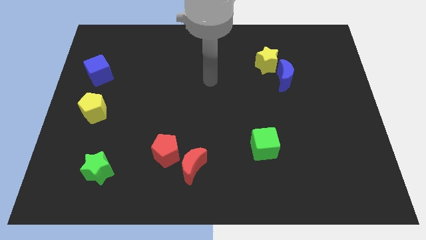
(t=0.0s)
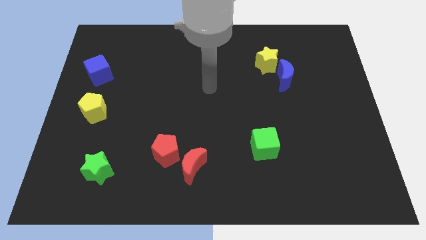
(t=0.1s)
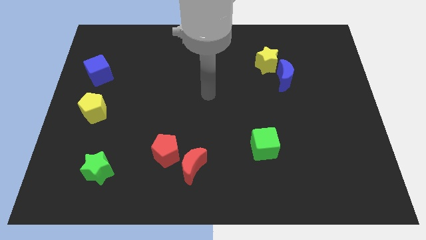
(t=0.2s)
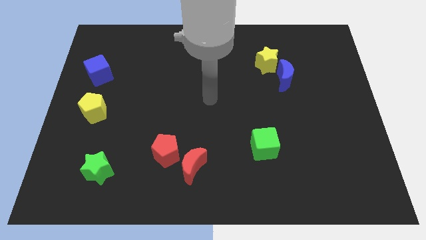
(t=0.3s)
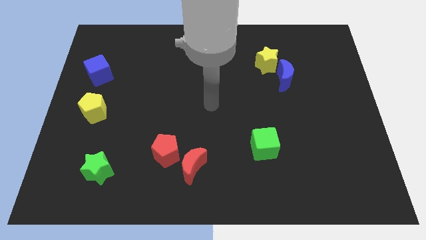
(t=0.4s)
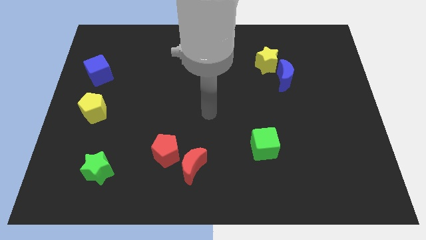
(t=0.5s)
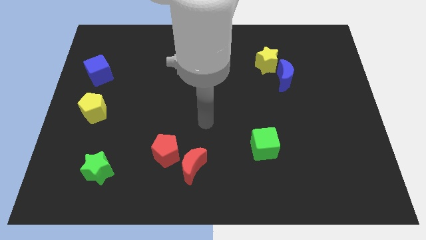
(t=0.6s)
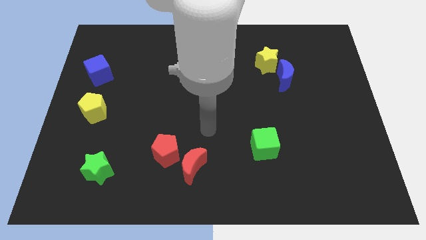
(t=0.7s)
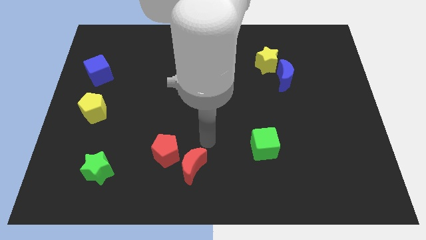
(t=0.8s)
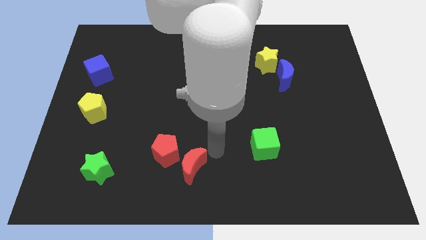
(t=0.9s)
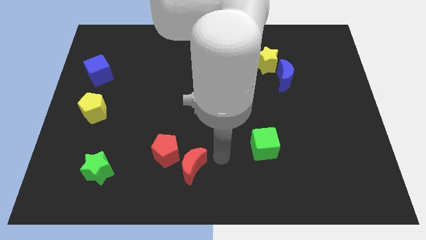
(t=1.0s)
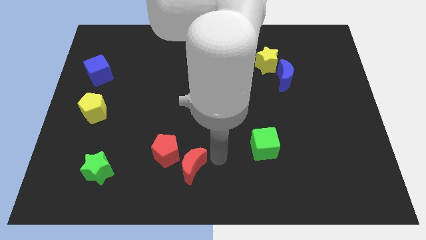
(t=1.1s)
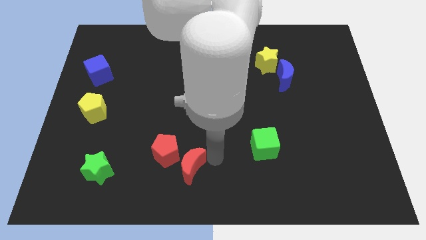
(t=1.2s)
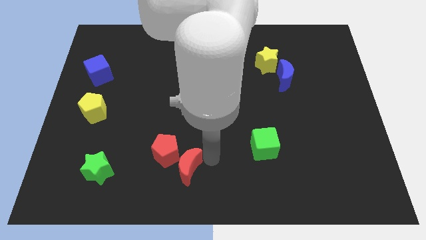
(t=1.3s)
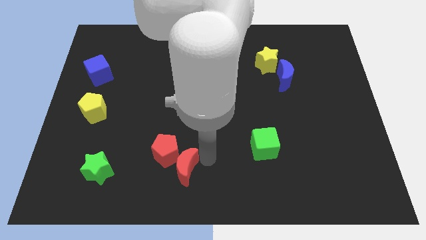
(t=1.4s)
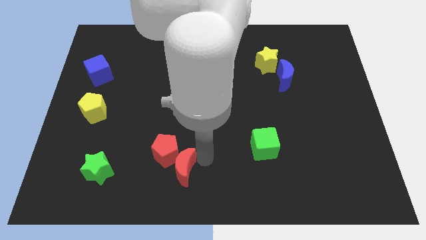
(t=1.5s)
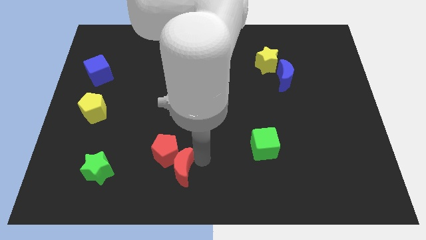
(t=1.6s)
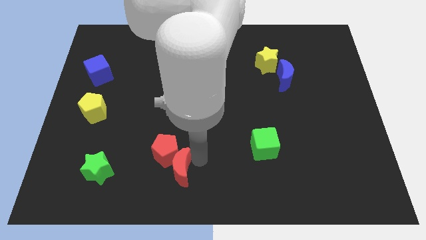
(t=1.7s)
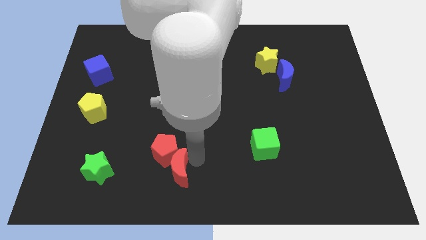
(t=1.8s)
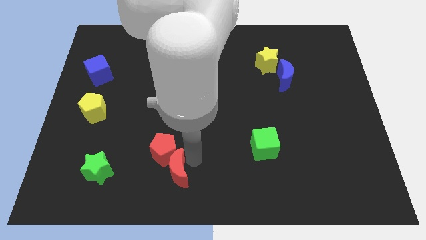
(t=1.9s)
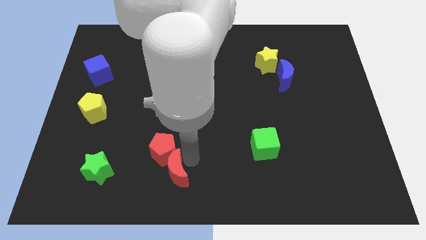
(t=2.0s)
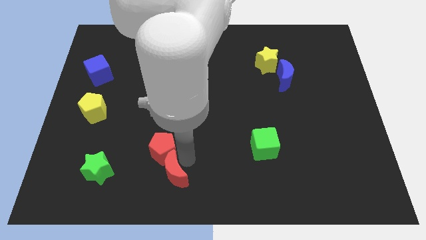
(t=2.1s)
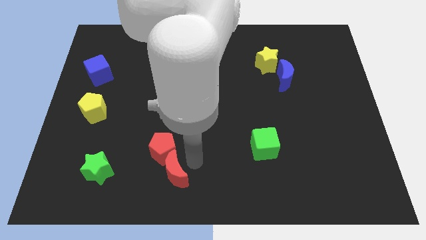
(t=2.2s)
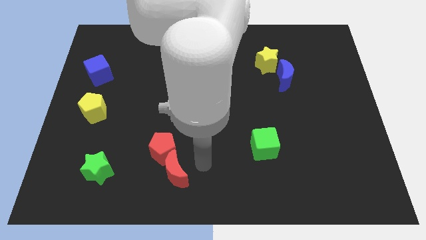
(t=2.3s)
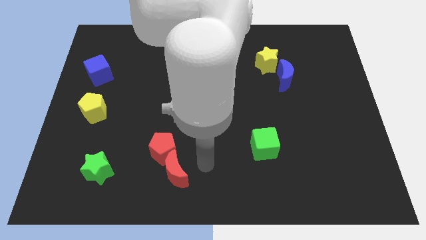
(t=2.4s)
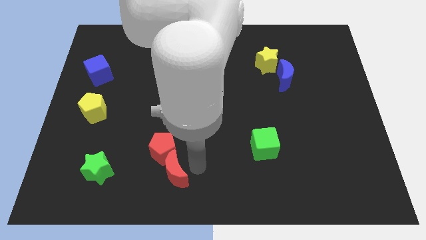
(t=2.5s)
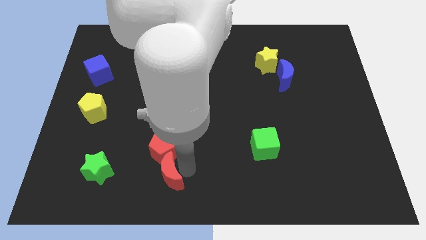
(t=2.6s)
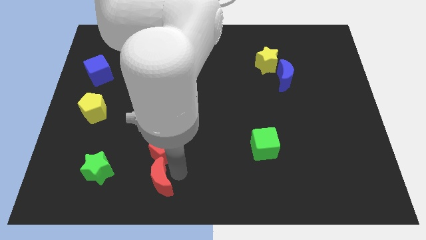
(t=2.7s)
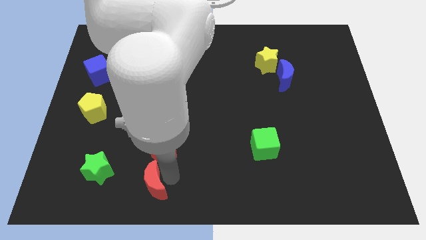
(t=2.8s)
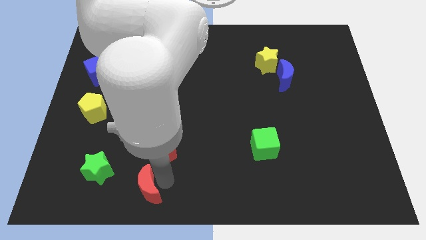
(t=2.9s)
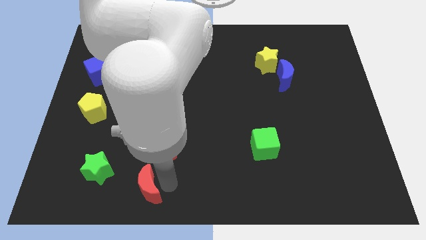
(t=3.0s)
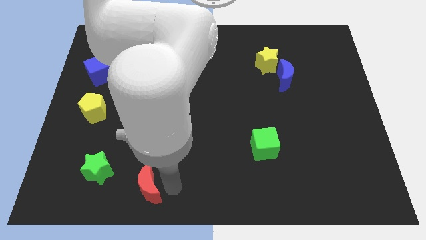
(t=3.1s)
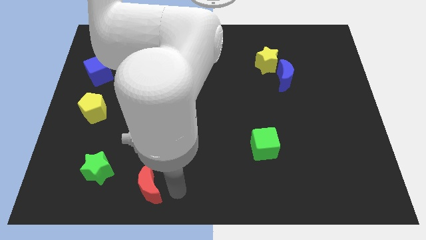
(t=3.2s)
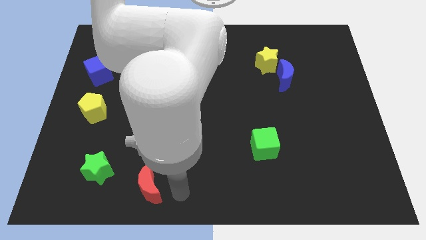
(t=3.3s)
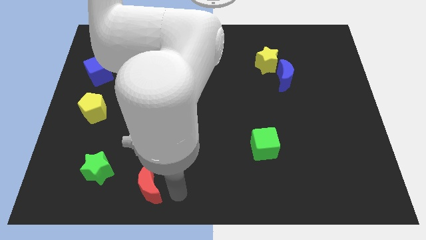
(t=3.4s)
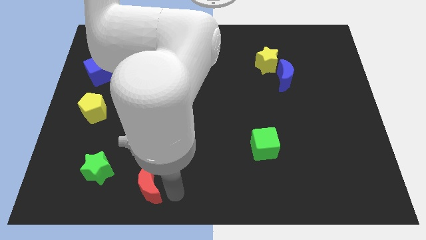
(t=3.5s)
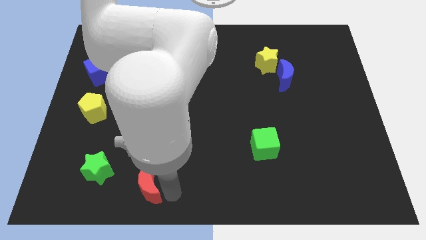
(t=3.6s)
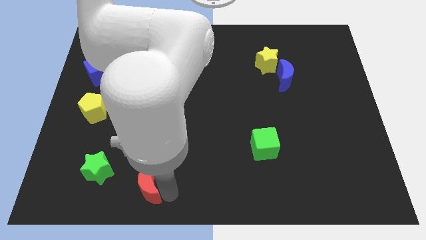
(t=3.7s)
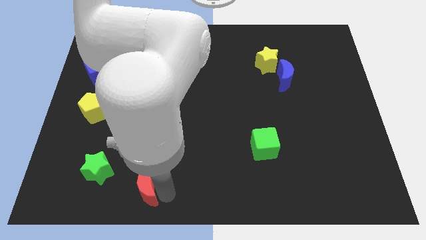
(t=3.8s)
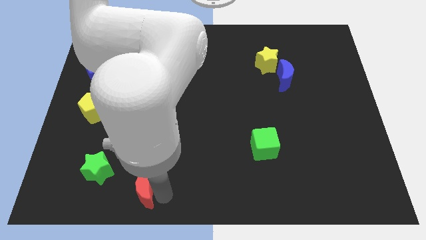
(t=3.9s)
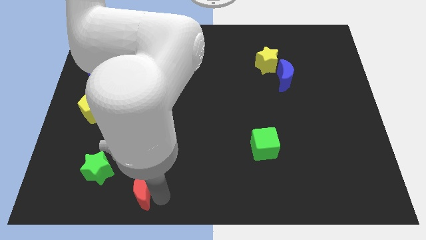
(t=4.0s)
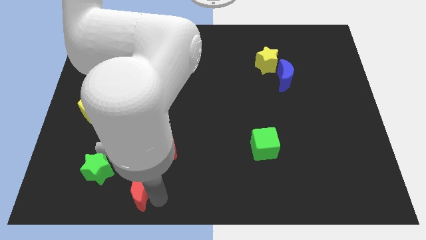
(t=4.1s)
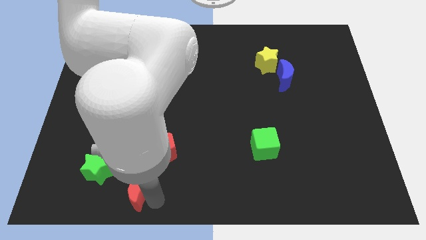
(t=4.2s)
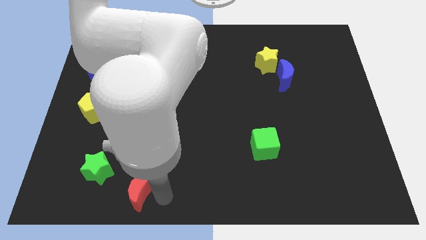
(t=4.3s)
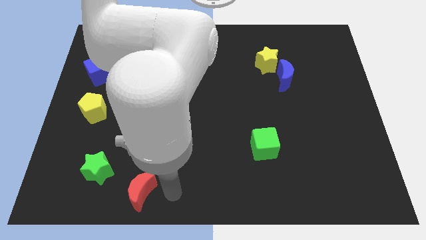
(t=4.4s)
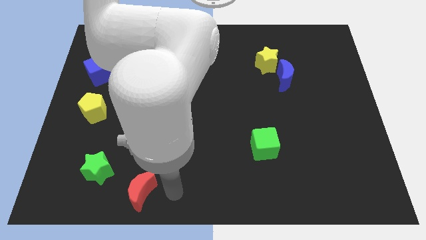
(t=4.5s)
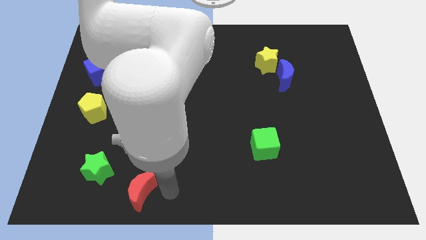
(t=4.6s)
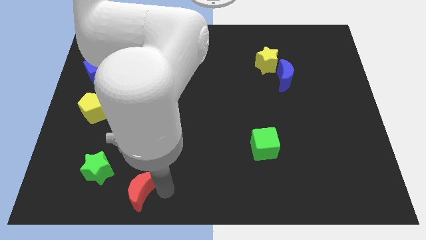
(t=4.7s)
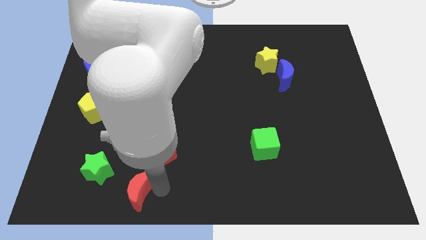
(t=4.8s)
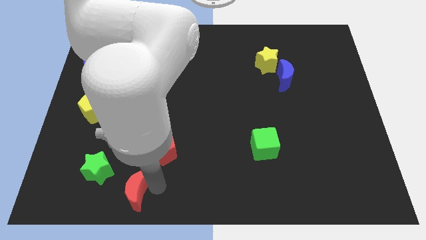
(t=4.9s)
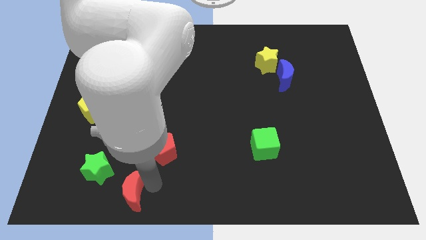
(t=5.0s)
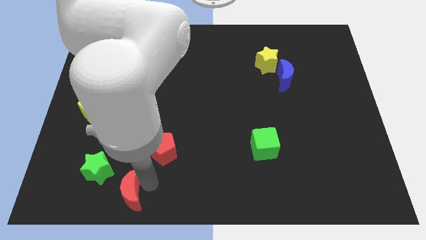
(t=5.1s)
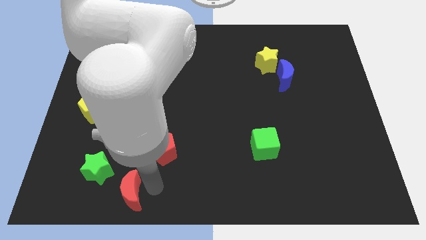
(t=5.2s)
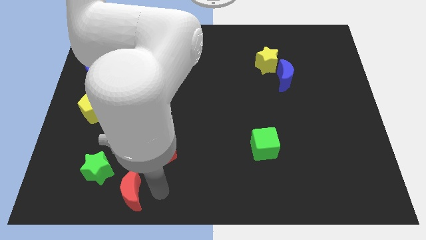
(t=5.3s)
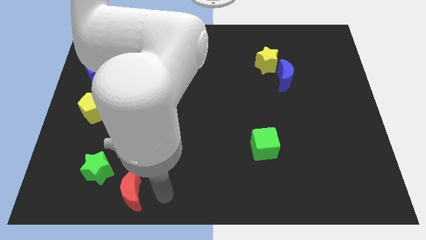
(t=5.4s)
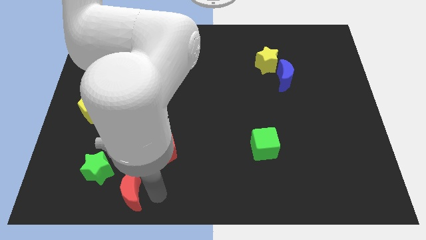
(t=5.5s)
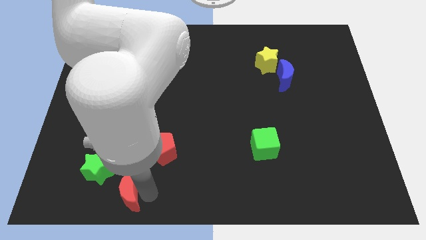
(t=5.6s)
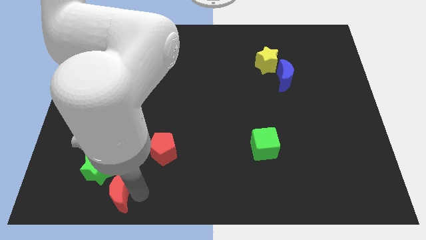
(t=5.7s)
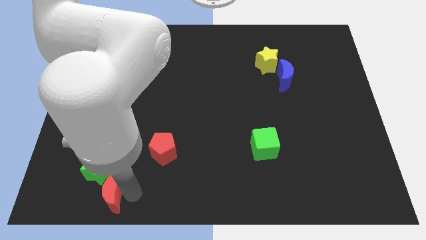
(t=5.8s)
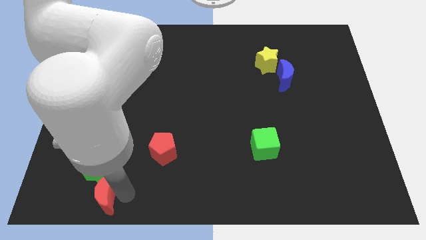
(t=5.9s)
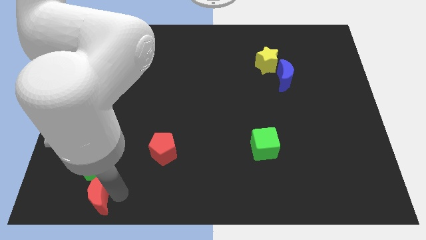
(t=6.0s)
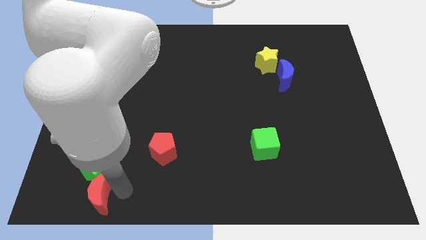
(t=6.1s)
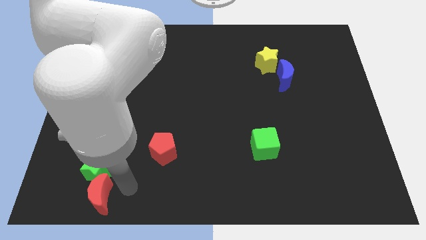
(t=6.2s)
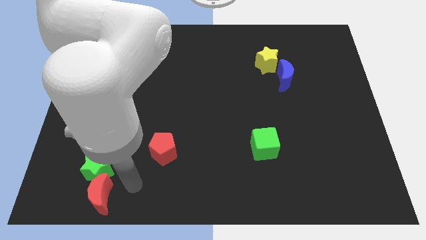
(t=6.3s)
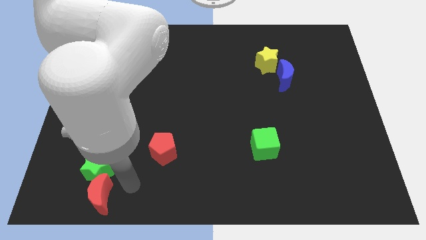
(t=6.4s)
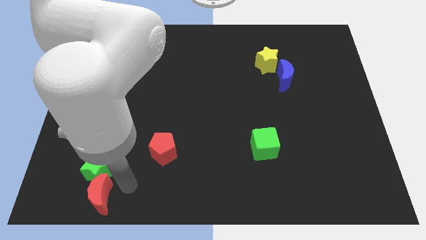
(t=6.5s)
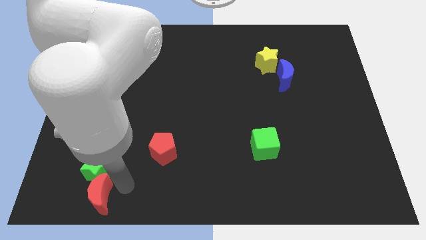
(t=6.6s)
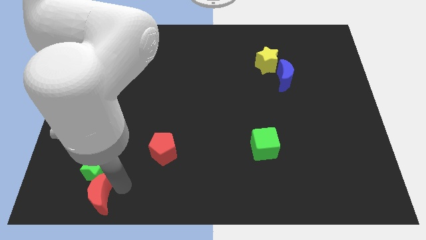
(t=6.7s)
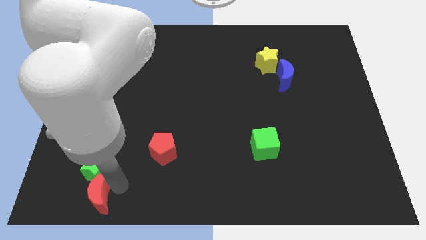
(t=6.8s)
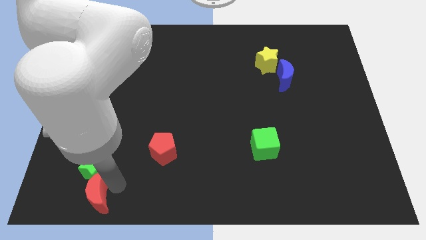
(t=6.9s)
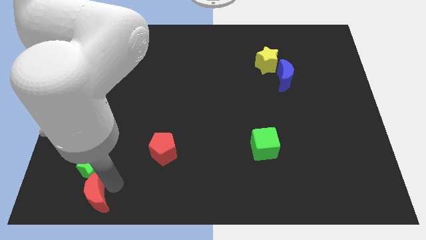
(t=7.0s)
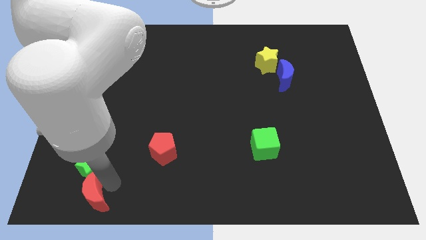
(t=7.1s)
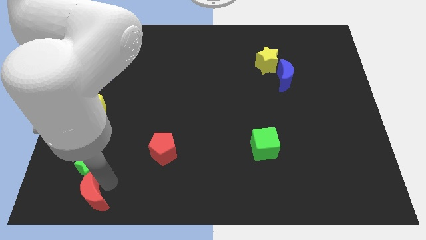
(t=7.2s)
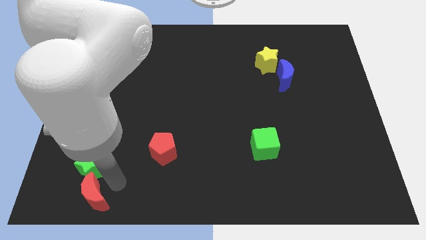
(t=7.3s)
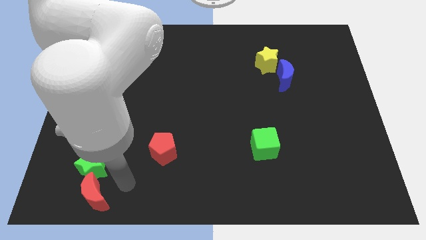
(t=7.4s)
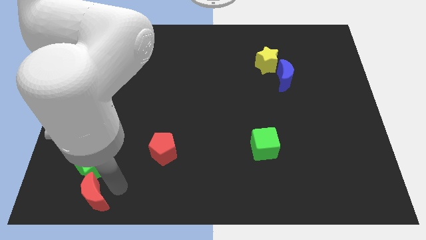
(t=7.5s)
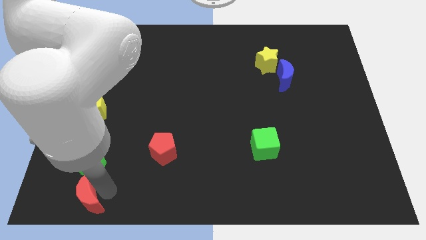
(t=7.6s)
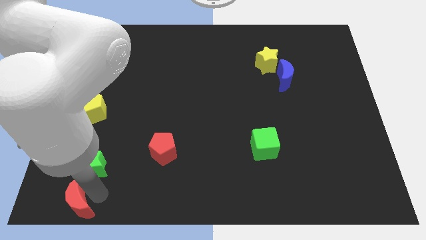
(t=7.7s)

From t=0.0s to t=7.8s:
move the red moon to the bottom left corner
